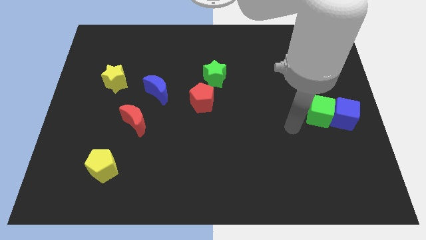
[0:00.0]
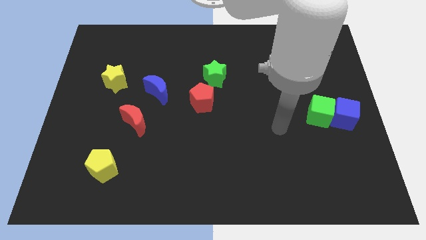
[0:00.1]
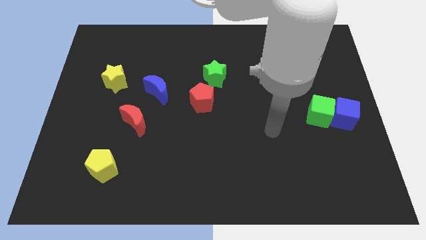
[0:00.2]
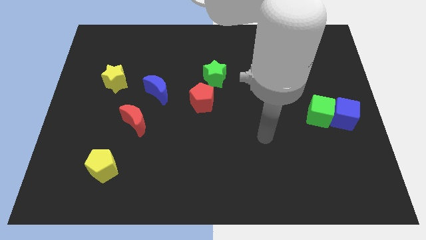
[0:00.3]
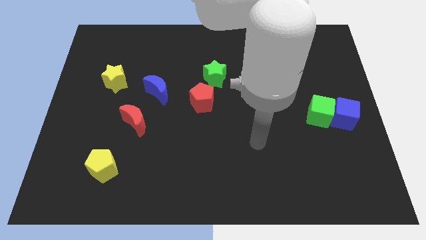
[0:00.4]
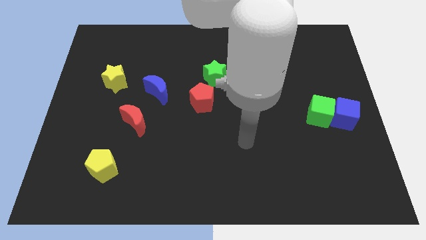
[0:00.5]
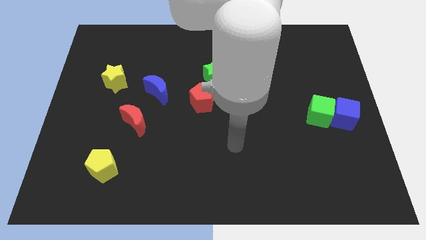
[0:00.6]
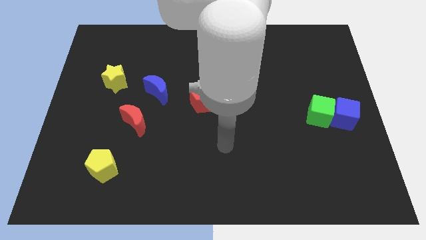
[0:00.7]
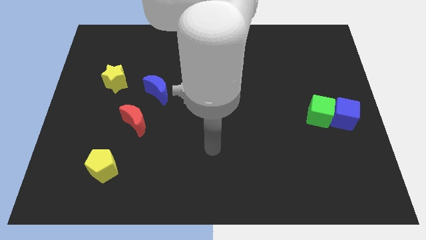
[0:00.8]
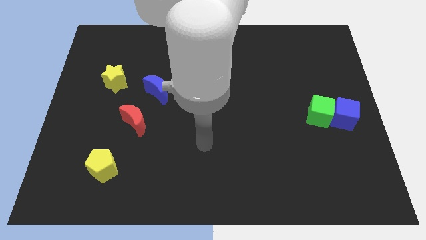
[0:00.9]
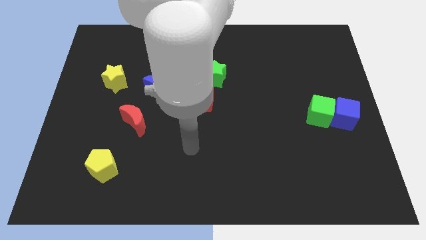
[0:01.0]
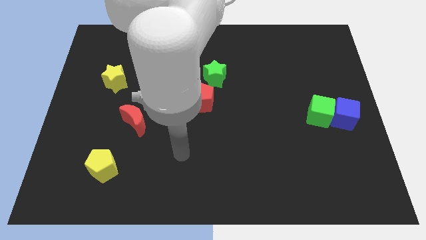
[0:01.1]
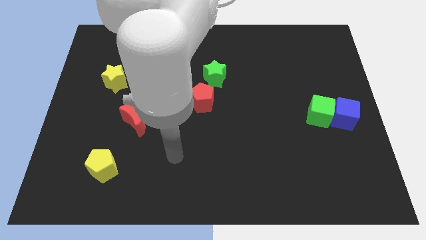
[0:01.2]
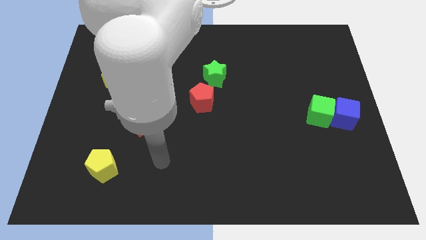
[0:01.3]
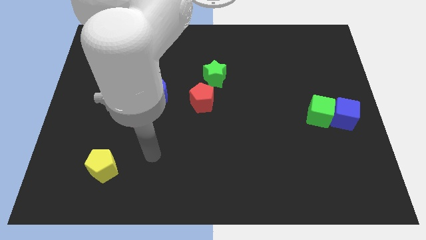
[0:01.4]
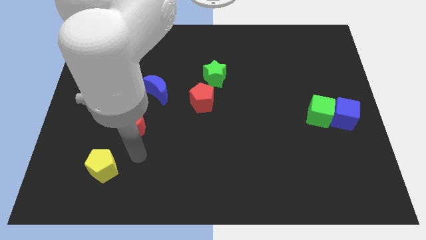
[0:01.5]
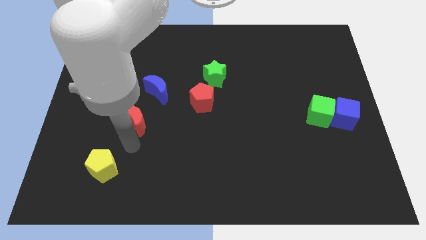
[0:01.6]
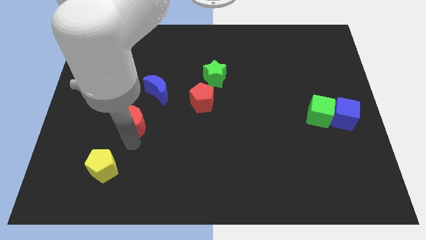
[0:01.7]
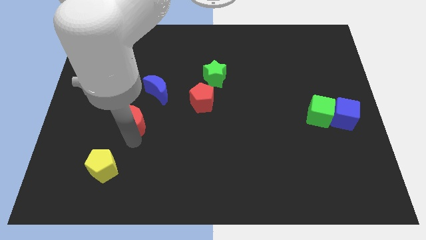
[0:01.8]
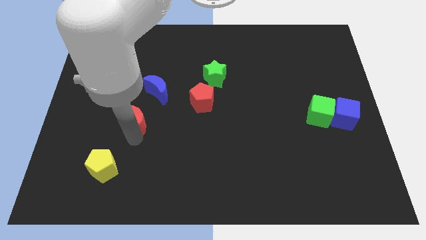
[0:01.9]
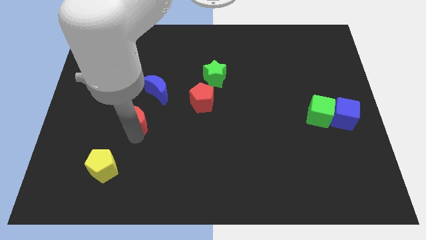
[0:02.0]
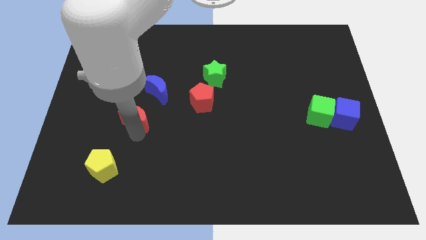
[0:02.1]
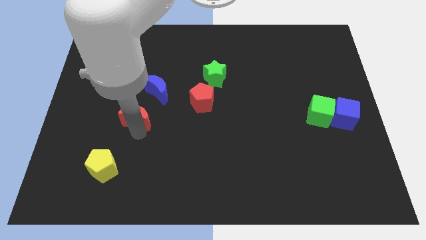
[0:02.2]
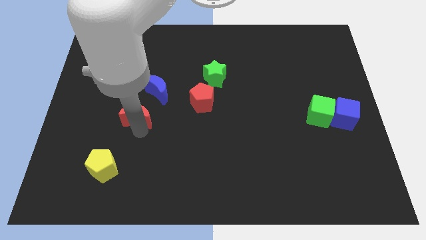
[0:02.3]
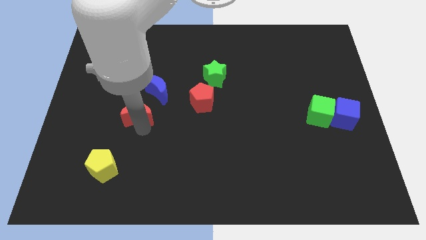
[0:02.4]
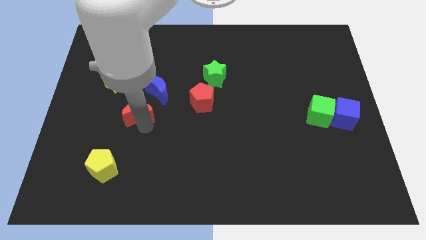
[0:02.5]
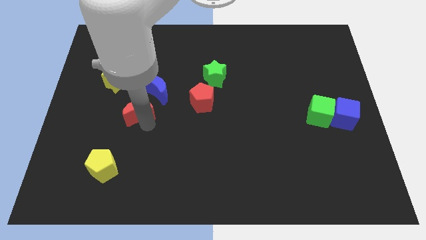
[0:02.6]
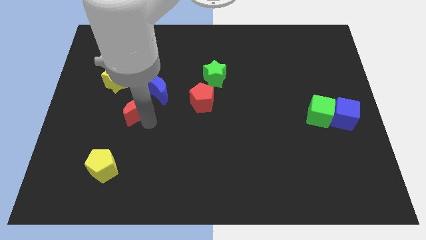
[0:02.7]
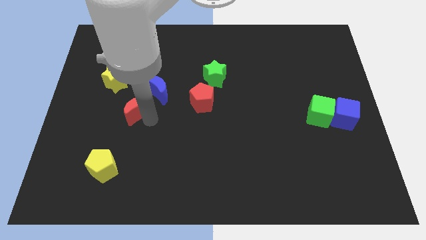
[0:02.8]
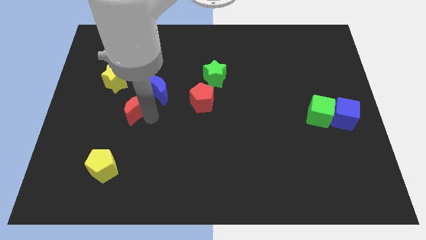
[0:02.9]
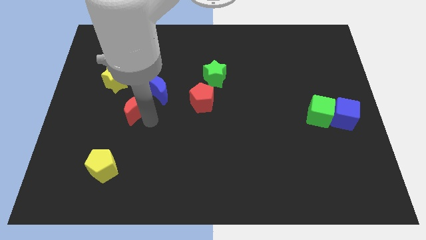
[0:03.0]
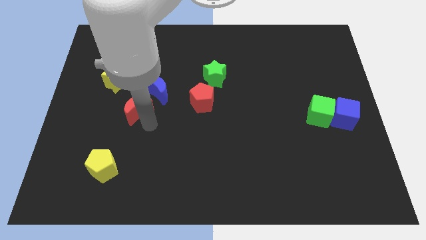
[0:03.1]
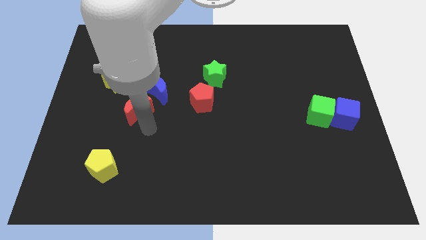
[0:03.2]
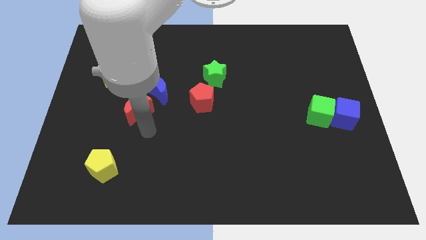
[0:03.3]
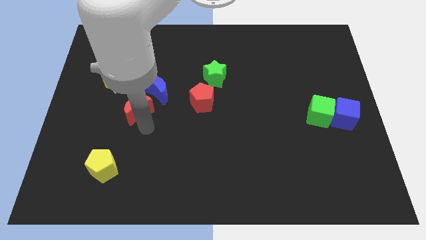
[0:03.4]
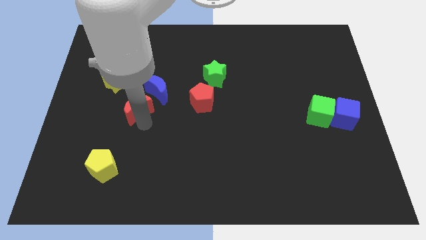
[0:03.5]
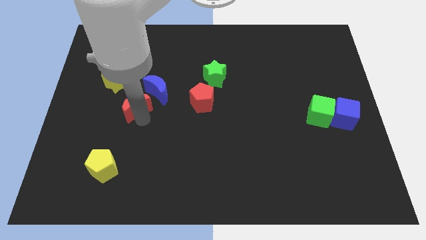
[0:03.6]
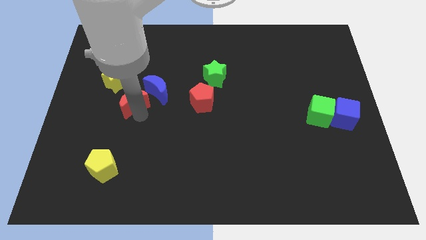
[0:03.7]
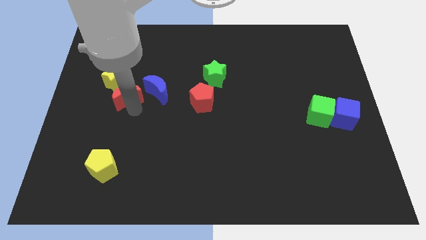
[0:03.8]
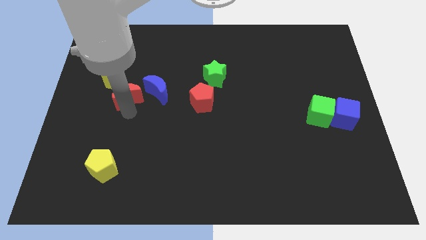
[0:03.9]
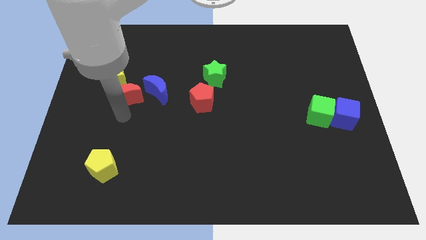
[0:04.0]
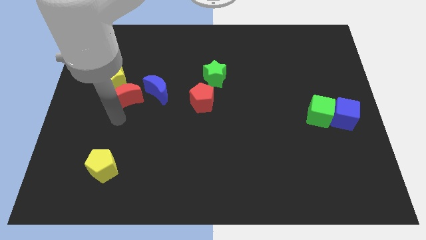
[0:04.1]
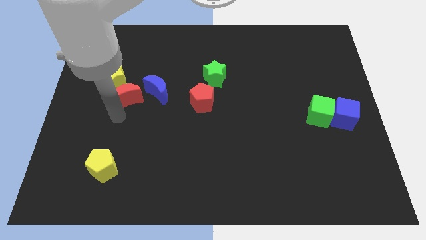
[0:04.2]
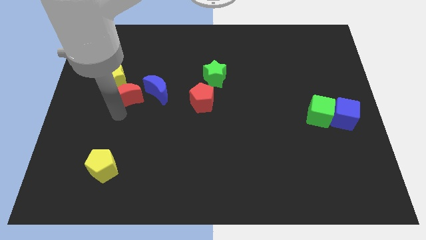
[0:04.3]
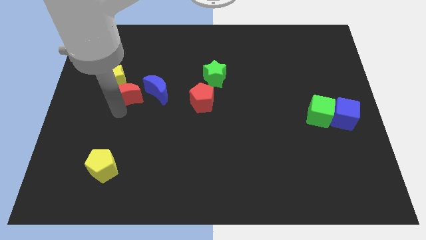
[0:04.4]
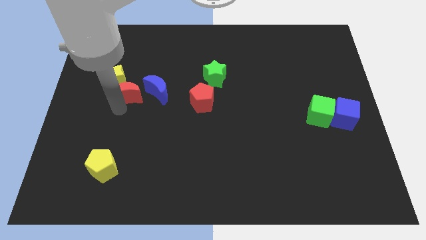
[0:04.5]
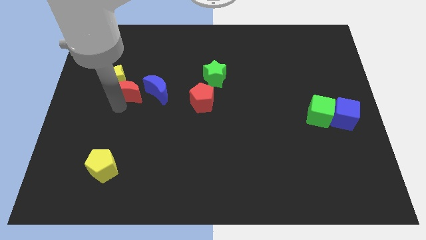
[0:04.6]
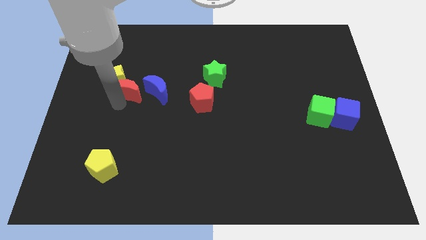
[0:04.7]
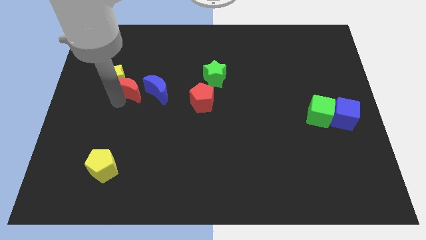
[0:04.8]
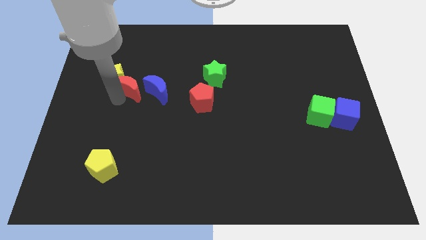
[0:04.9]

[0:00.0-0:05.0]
push the red moon to the top left of the blue moon

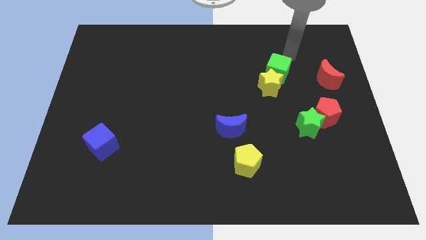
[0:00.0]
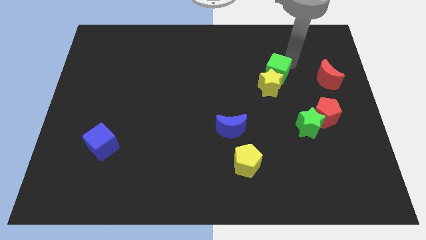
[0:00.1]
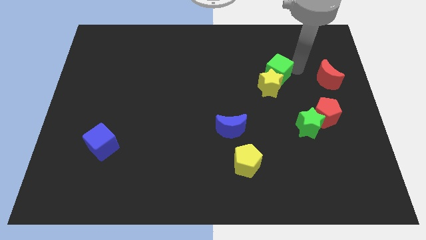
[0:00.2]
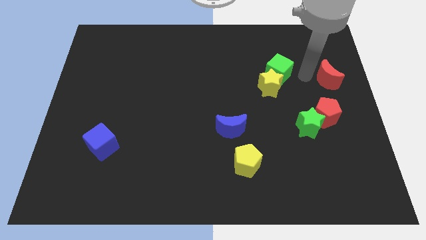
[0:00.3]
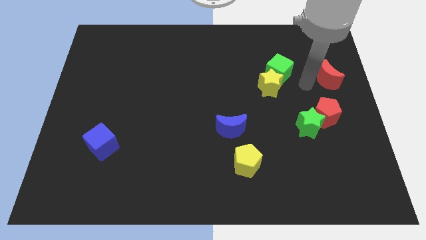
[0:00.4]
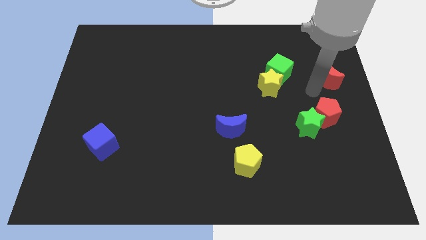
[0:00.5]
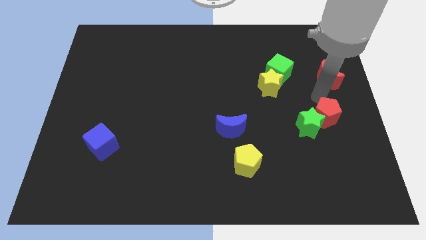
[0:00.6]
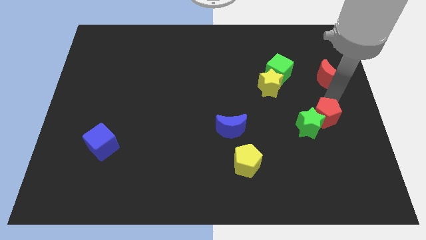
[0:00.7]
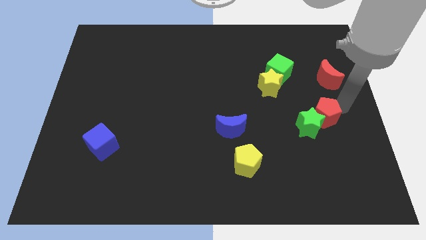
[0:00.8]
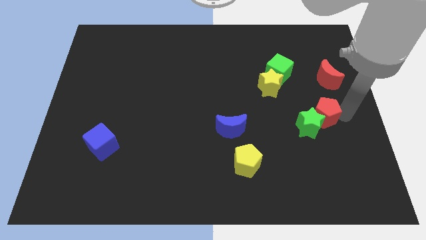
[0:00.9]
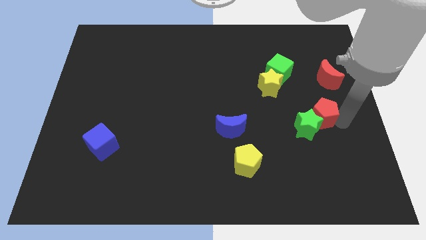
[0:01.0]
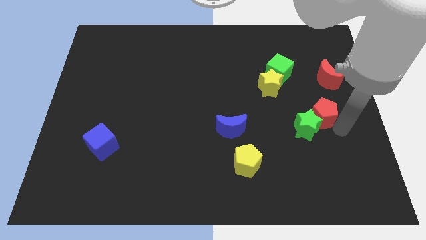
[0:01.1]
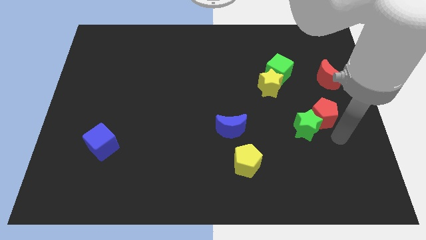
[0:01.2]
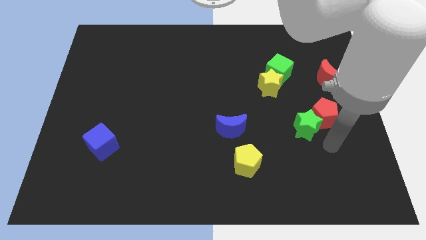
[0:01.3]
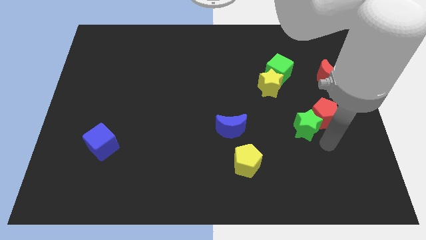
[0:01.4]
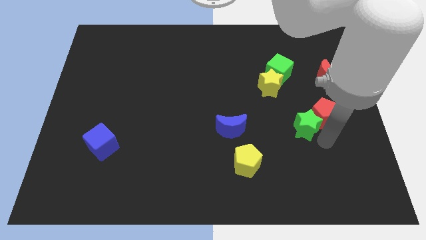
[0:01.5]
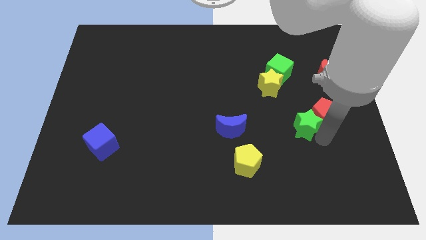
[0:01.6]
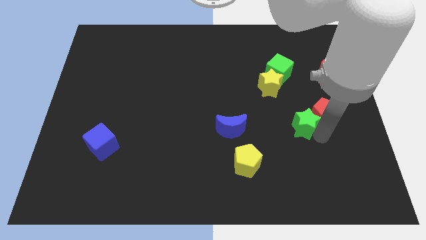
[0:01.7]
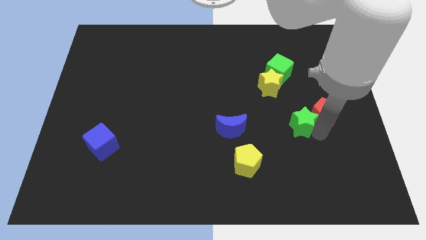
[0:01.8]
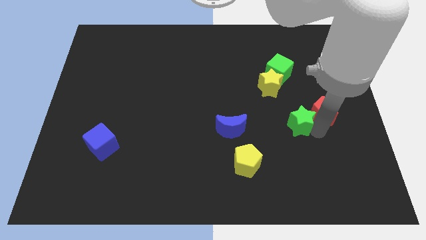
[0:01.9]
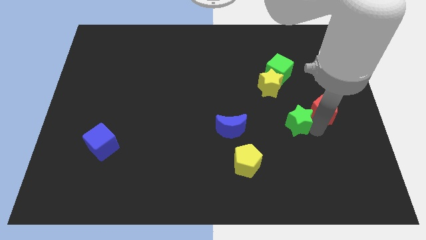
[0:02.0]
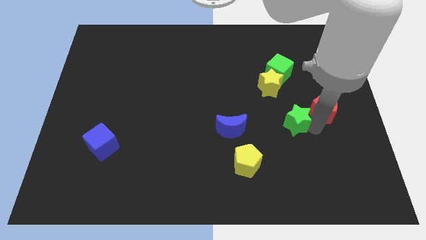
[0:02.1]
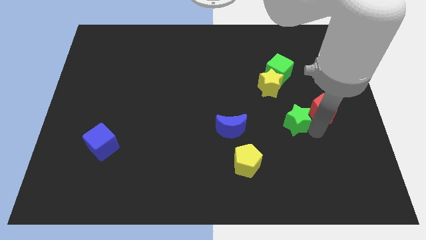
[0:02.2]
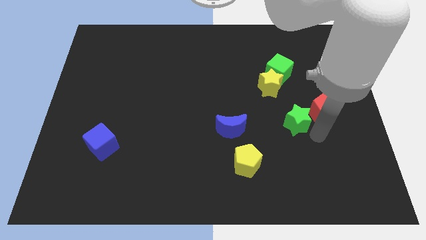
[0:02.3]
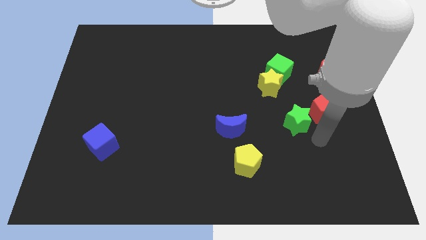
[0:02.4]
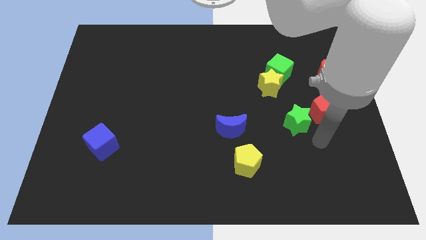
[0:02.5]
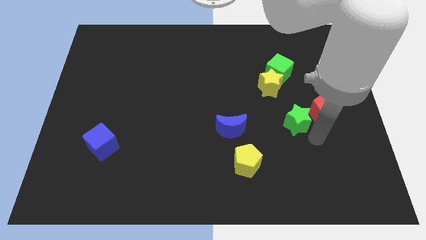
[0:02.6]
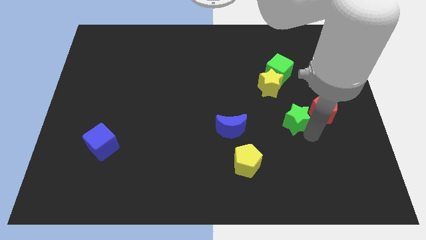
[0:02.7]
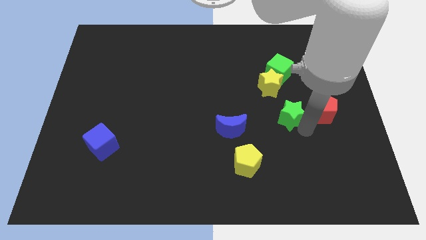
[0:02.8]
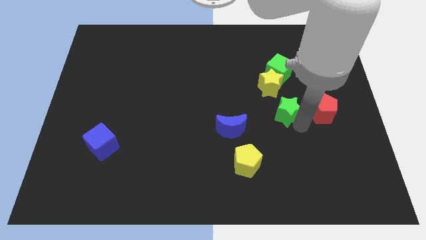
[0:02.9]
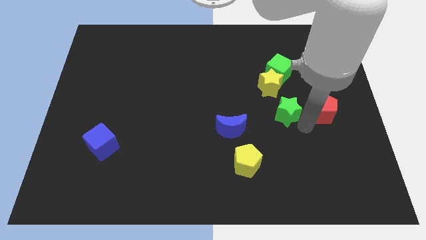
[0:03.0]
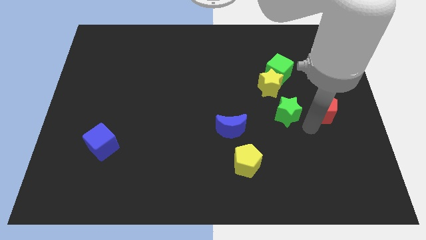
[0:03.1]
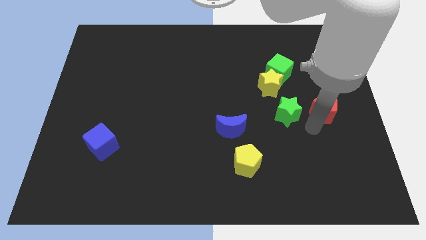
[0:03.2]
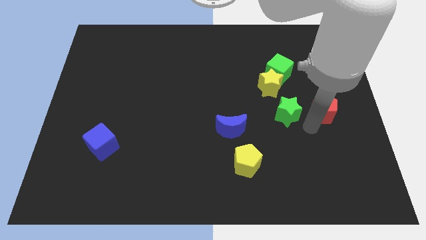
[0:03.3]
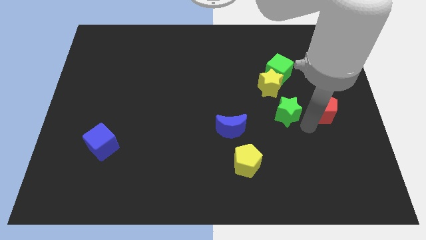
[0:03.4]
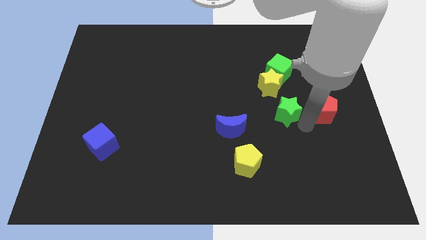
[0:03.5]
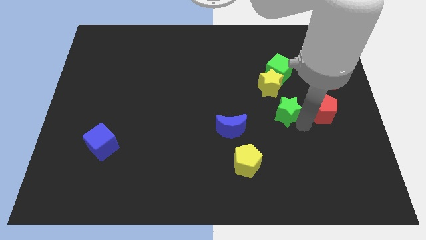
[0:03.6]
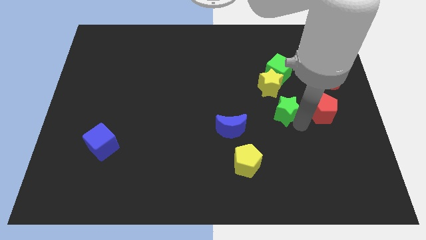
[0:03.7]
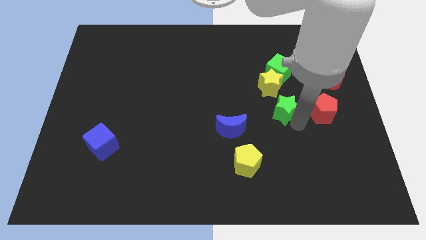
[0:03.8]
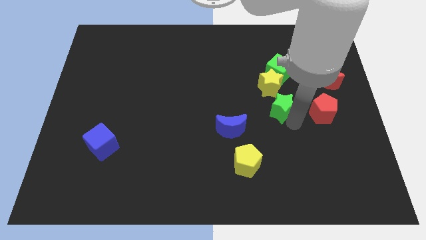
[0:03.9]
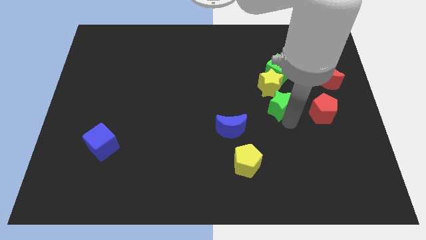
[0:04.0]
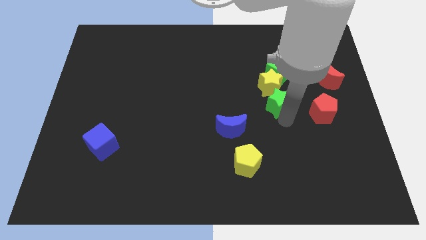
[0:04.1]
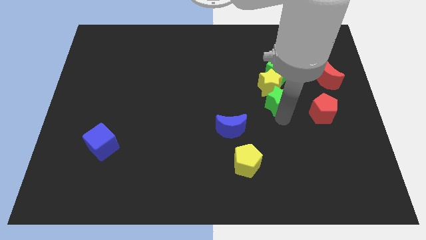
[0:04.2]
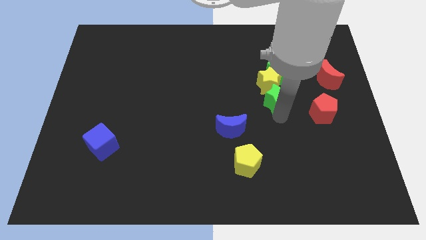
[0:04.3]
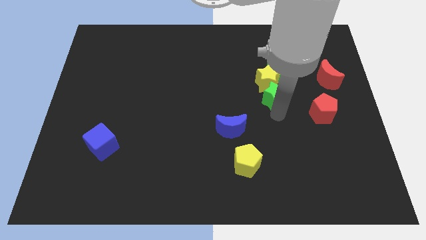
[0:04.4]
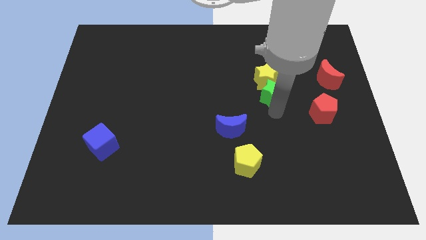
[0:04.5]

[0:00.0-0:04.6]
move the green star diagonally down and to the left of the green cube
